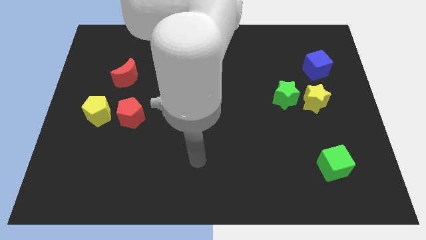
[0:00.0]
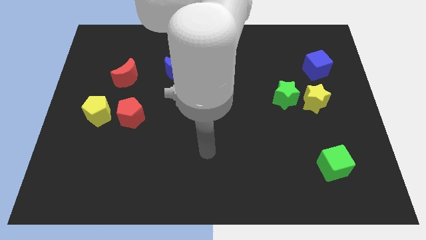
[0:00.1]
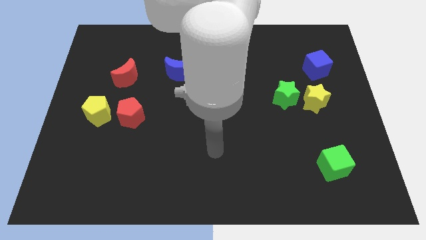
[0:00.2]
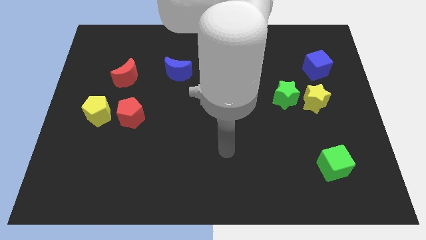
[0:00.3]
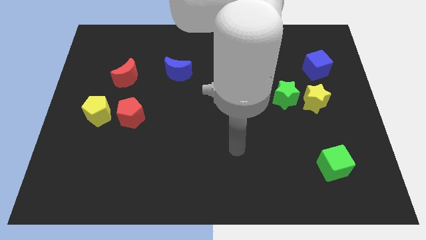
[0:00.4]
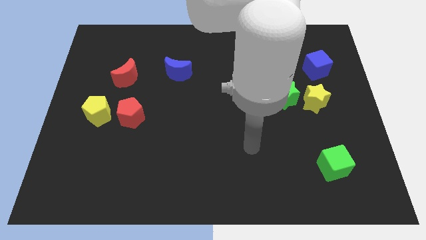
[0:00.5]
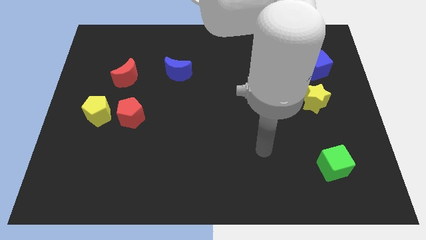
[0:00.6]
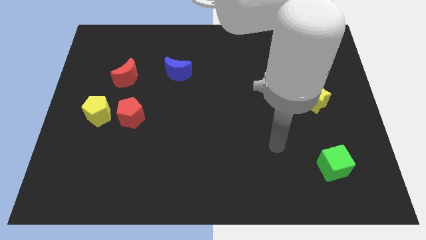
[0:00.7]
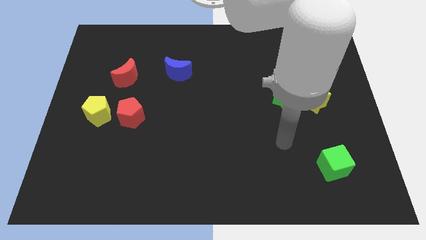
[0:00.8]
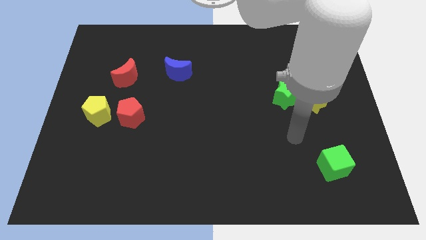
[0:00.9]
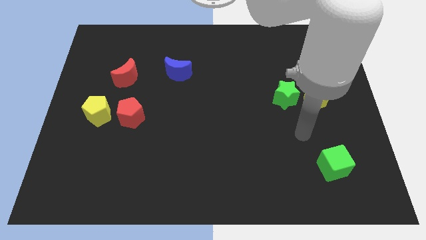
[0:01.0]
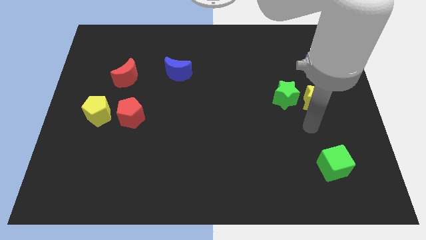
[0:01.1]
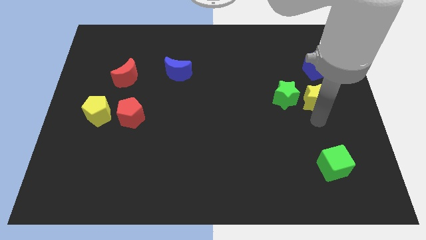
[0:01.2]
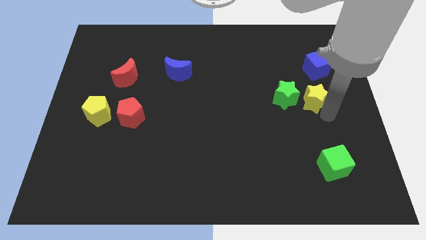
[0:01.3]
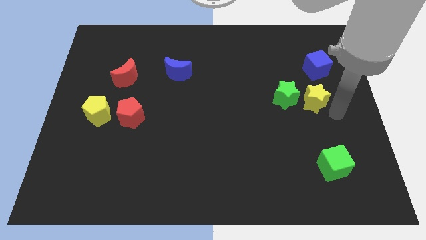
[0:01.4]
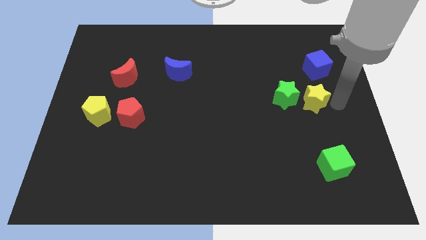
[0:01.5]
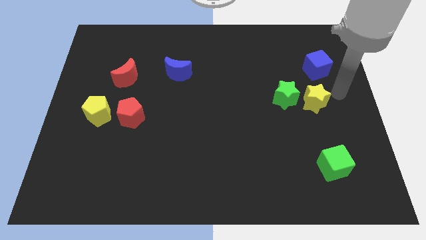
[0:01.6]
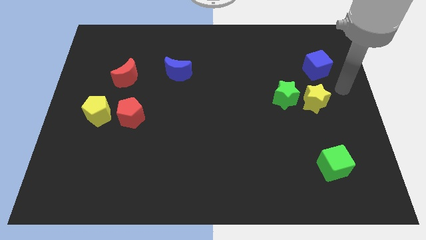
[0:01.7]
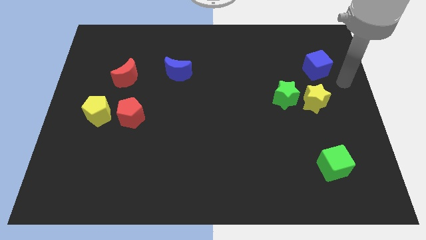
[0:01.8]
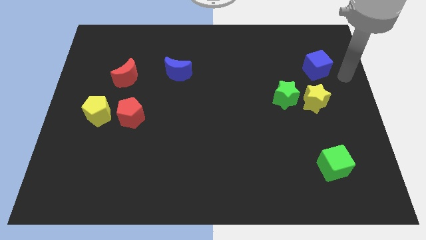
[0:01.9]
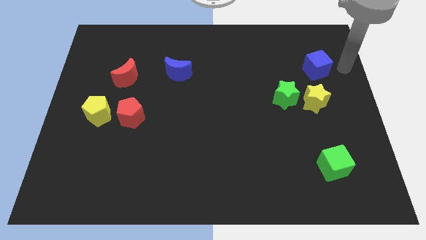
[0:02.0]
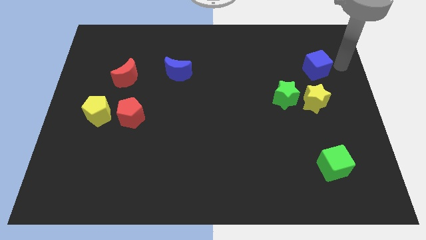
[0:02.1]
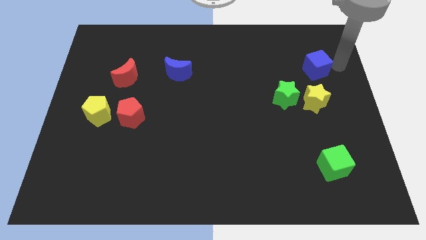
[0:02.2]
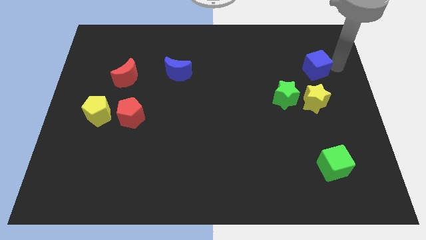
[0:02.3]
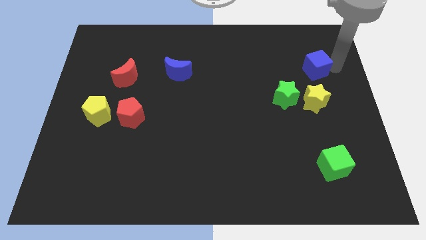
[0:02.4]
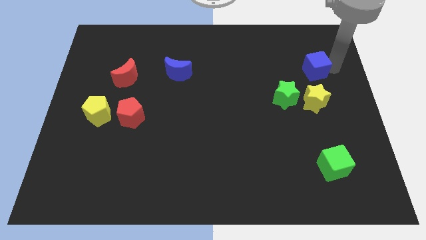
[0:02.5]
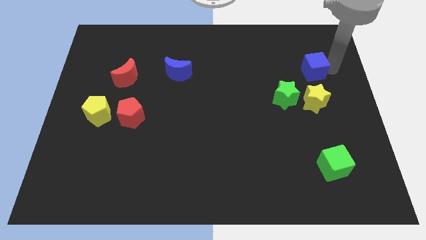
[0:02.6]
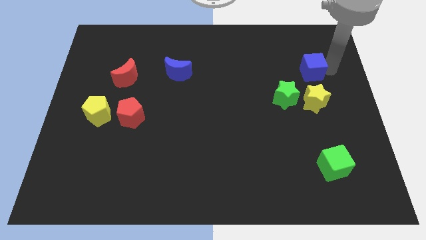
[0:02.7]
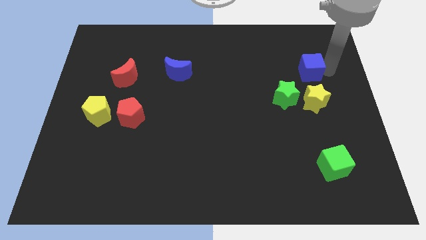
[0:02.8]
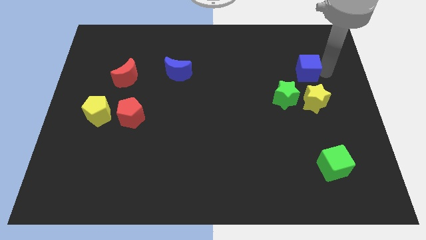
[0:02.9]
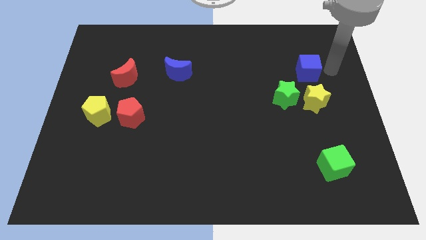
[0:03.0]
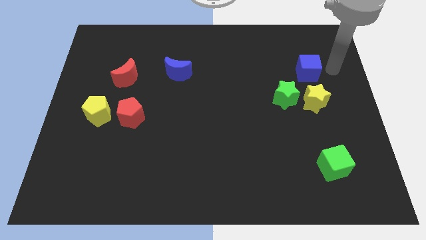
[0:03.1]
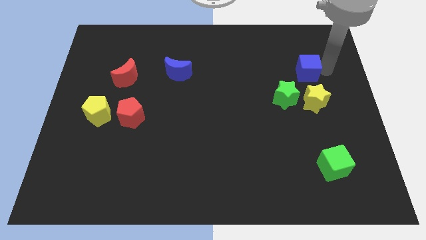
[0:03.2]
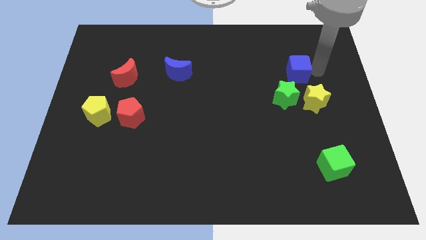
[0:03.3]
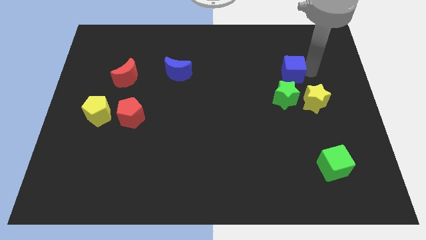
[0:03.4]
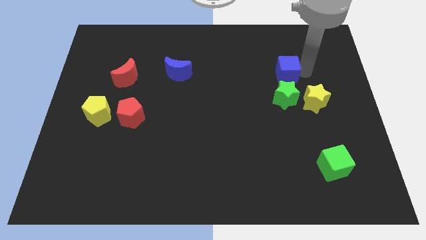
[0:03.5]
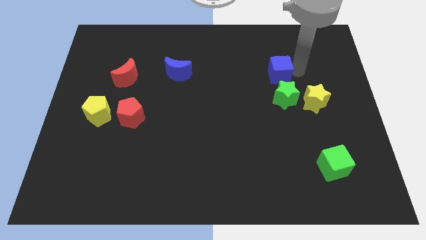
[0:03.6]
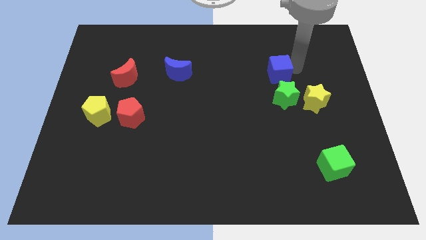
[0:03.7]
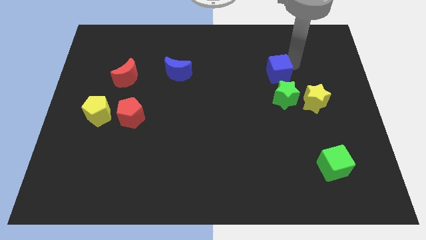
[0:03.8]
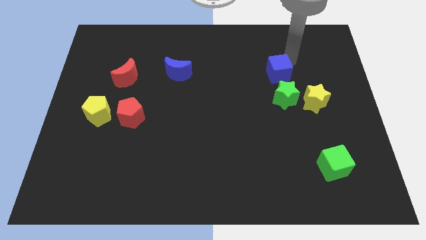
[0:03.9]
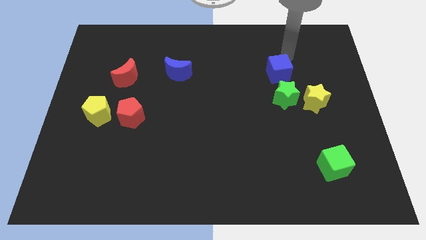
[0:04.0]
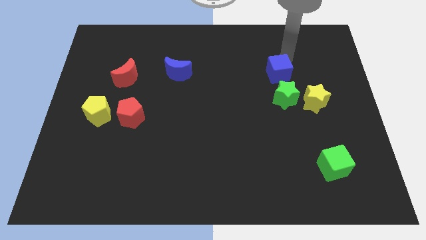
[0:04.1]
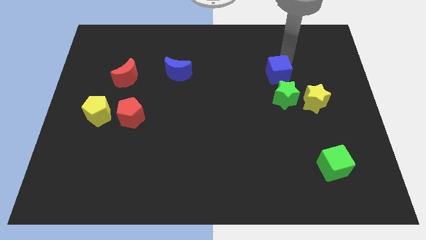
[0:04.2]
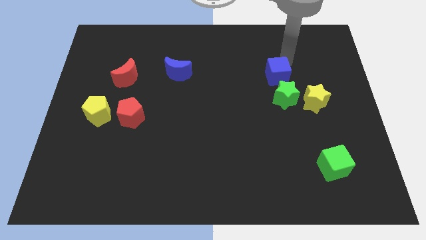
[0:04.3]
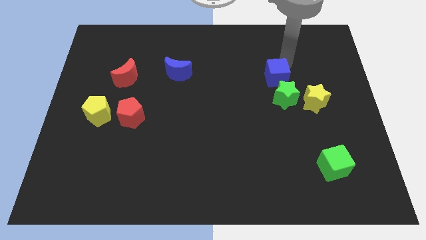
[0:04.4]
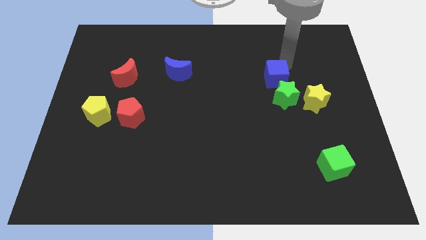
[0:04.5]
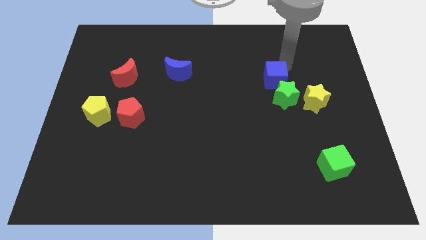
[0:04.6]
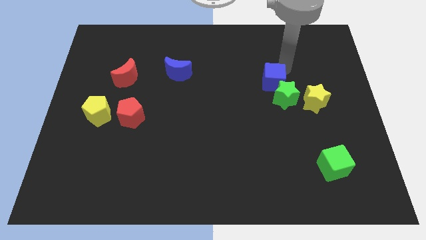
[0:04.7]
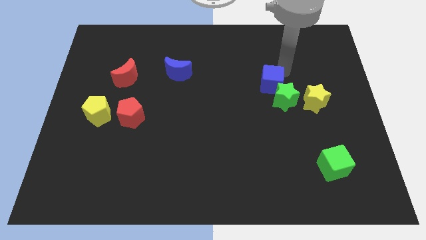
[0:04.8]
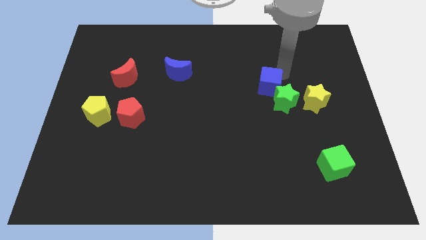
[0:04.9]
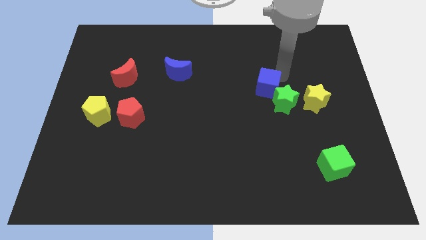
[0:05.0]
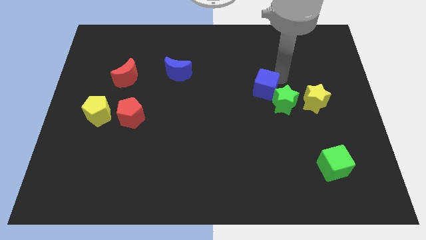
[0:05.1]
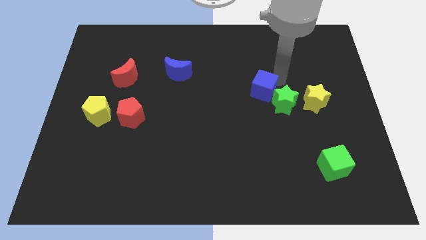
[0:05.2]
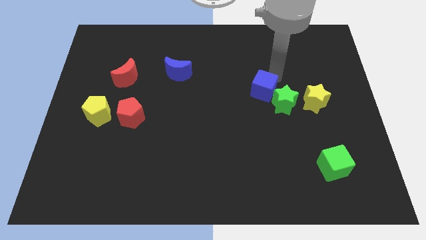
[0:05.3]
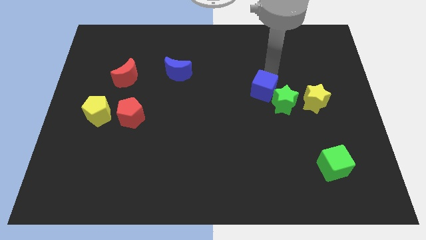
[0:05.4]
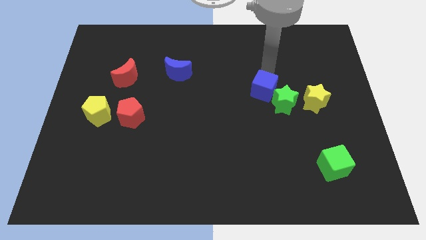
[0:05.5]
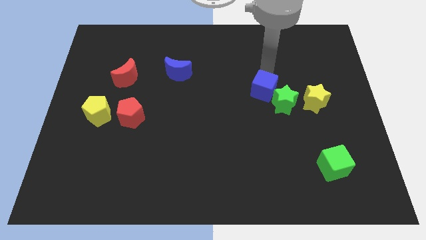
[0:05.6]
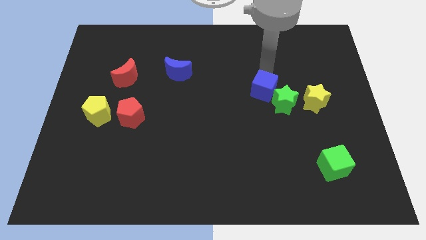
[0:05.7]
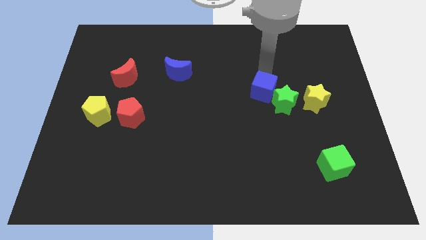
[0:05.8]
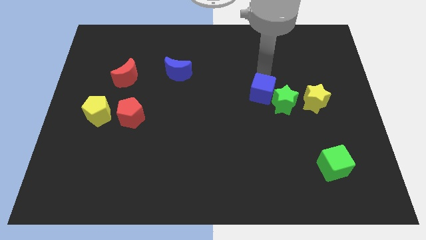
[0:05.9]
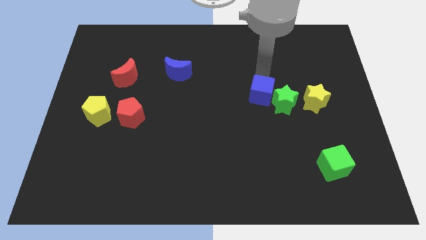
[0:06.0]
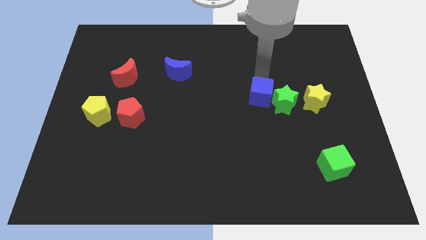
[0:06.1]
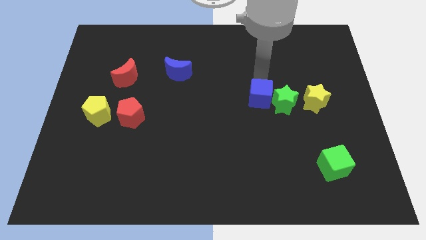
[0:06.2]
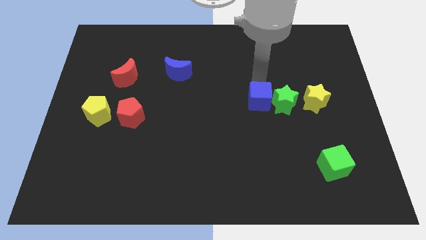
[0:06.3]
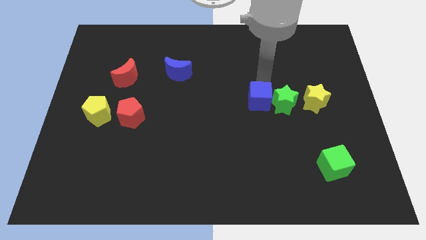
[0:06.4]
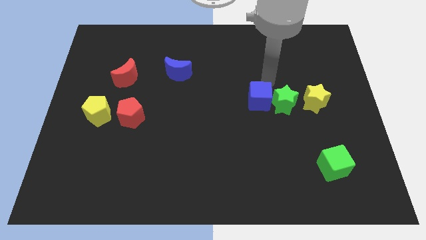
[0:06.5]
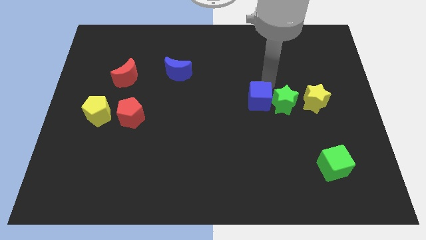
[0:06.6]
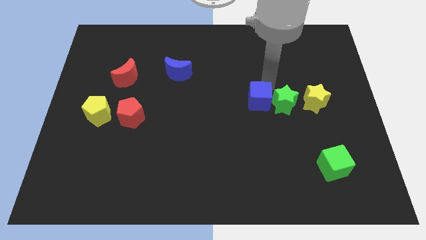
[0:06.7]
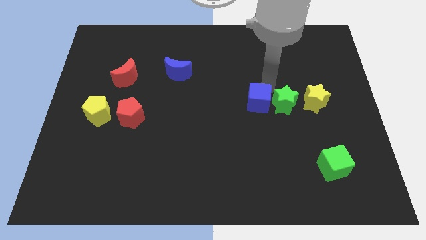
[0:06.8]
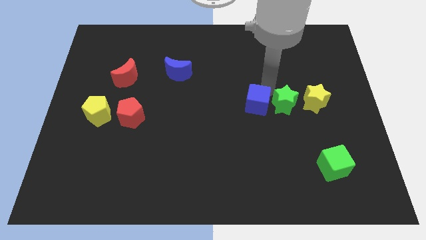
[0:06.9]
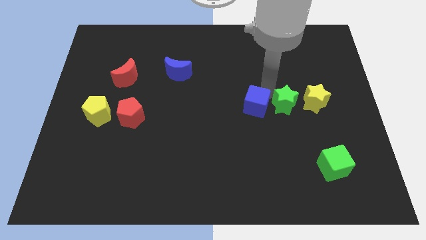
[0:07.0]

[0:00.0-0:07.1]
slide the blue cube down and then left

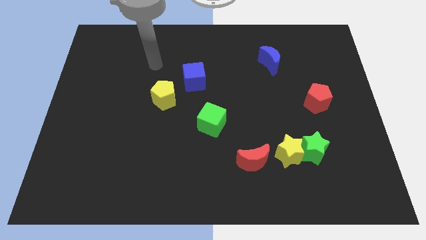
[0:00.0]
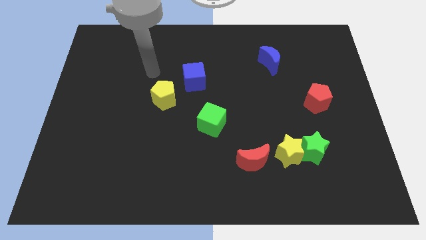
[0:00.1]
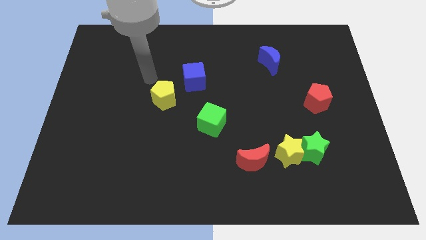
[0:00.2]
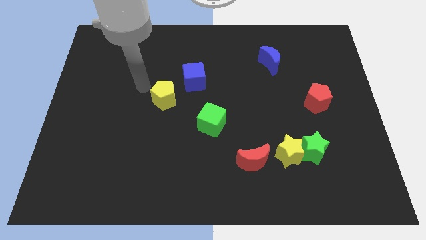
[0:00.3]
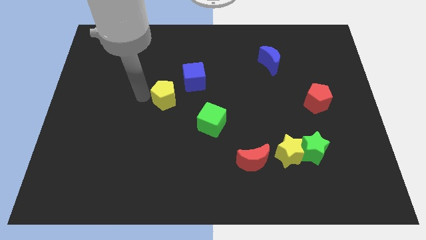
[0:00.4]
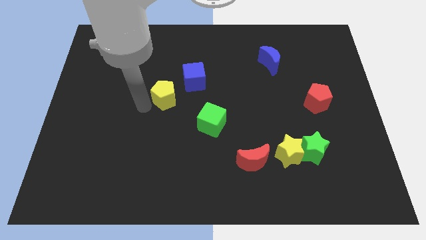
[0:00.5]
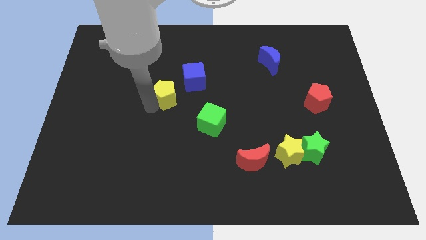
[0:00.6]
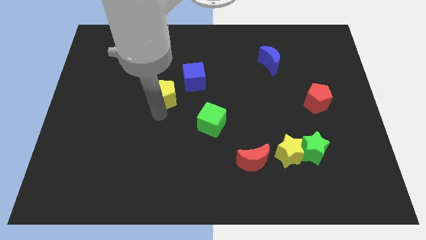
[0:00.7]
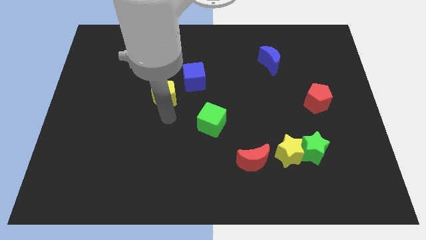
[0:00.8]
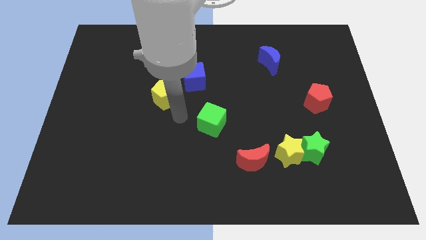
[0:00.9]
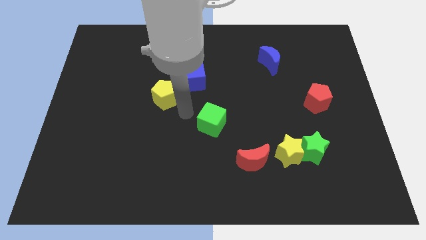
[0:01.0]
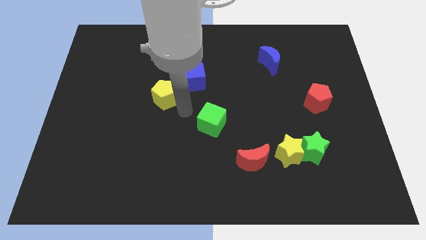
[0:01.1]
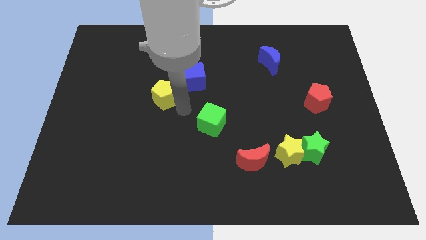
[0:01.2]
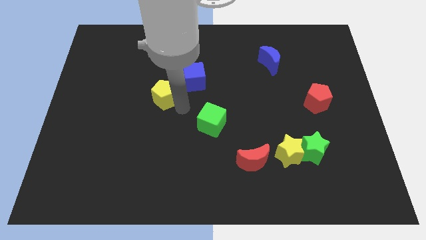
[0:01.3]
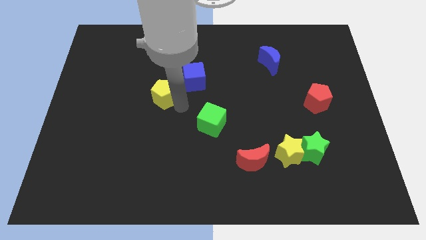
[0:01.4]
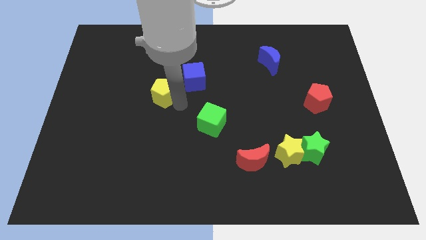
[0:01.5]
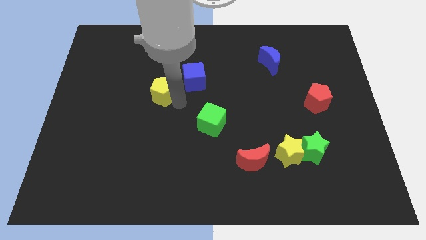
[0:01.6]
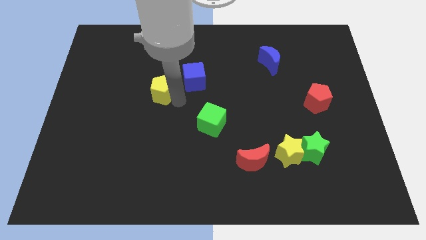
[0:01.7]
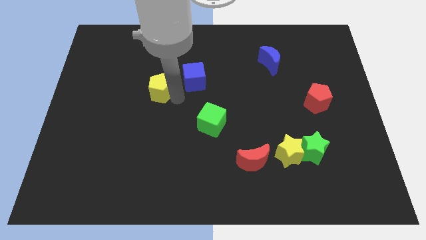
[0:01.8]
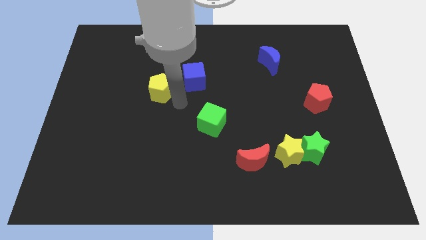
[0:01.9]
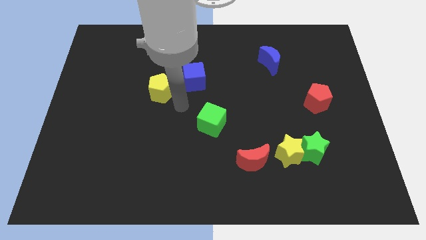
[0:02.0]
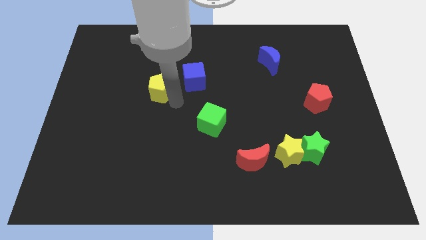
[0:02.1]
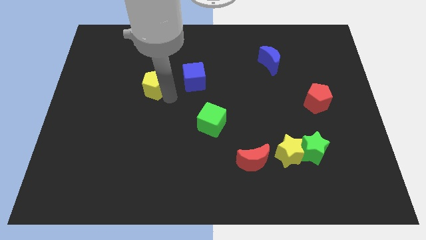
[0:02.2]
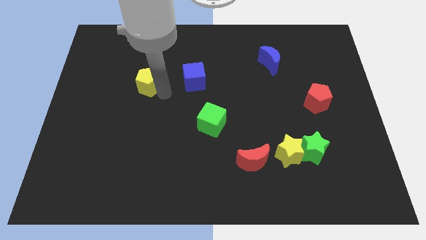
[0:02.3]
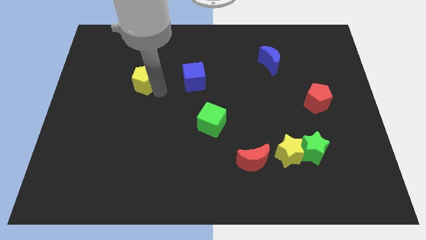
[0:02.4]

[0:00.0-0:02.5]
move the yellow pentagon upwards and left diagonally a little
